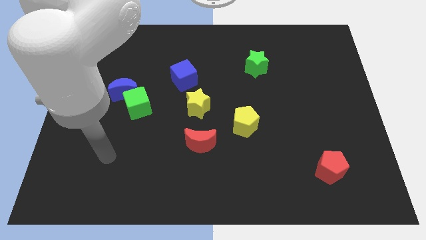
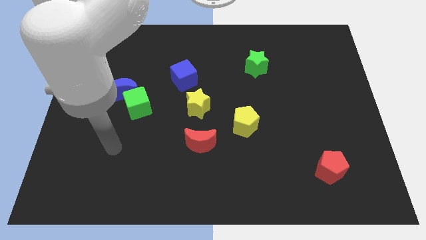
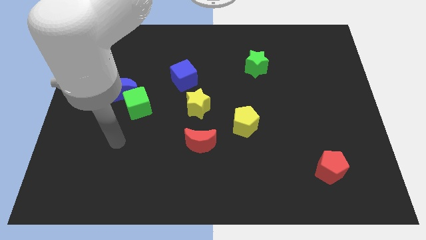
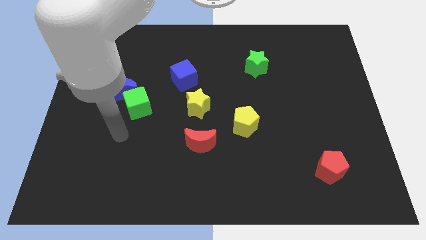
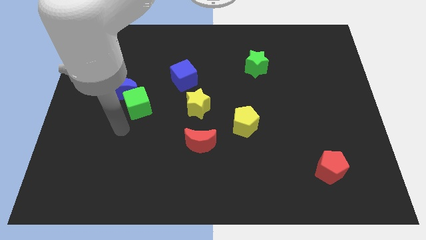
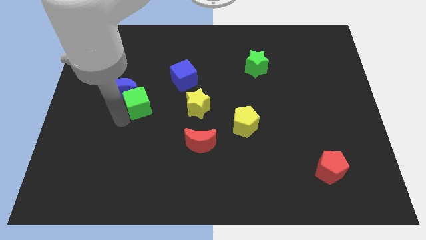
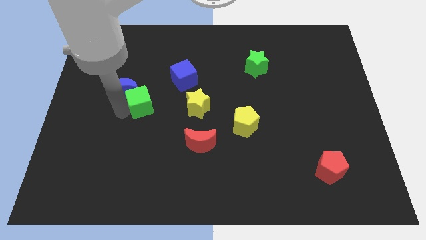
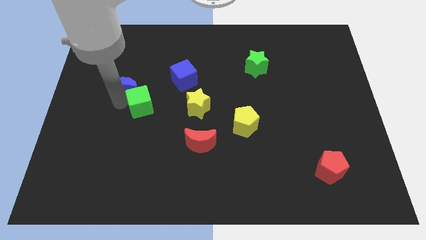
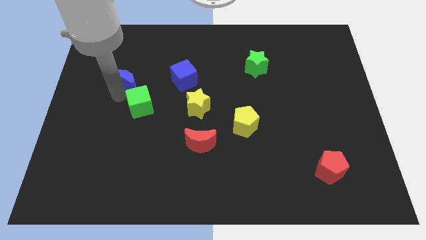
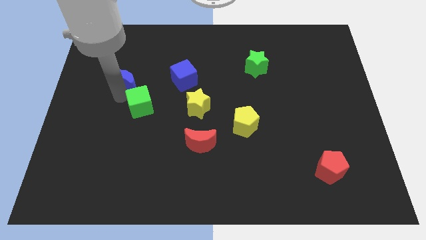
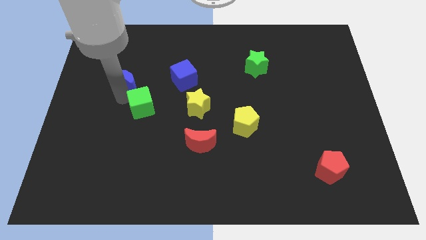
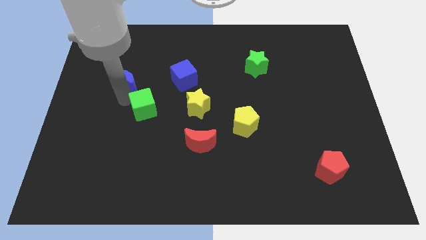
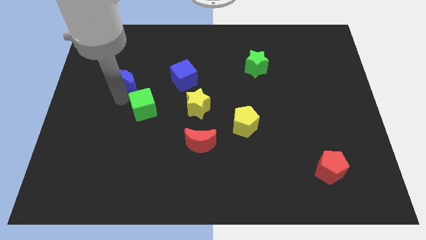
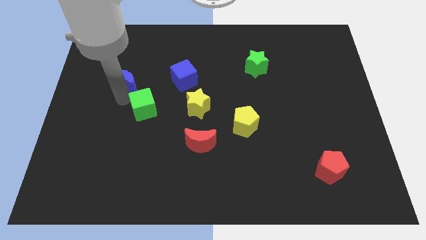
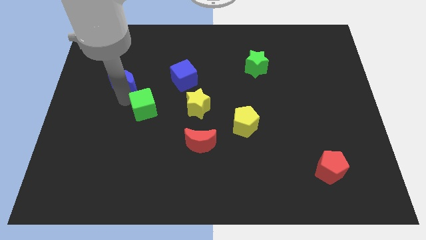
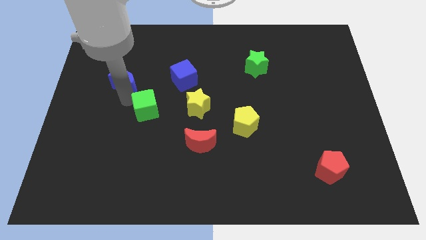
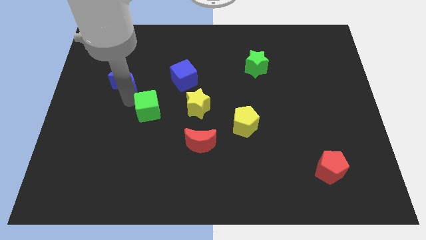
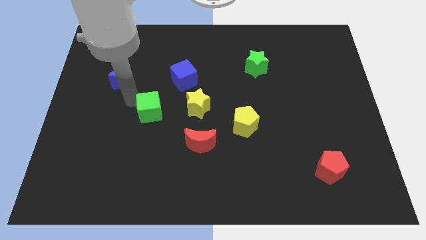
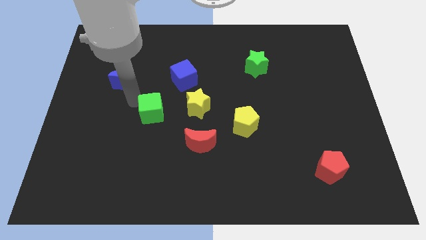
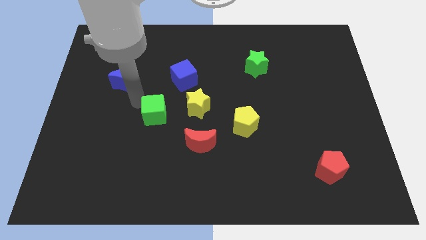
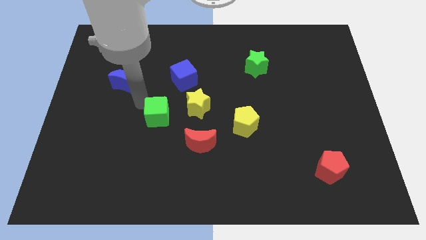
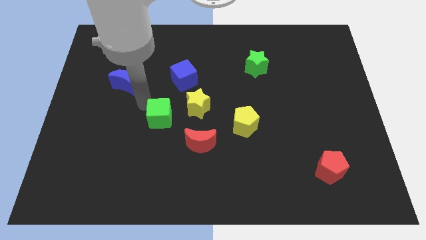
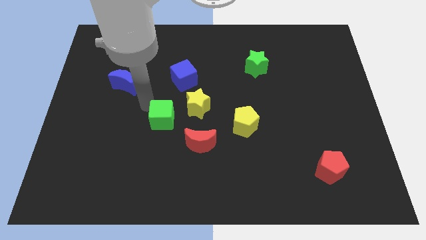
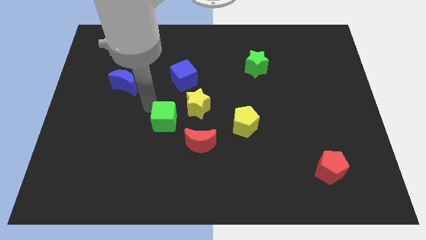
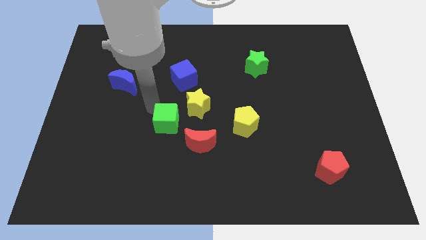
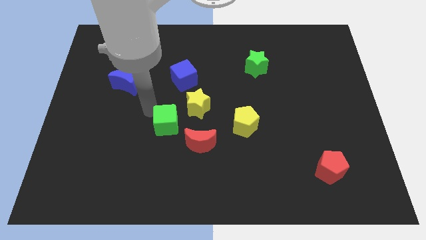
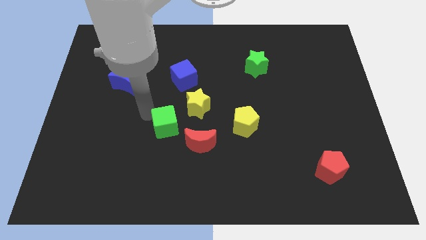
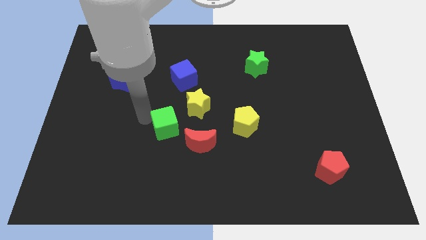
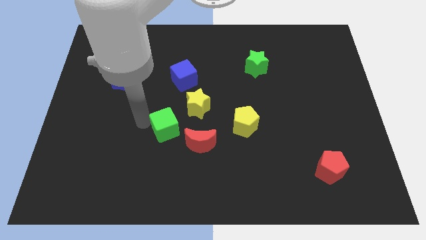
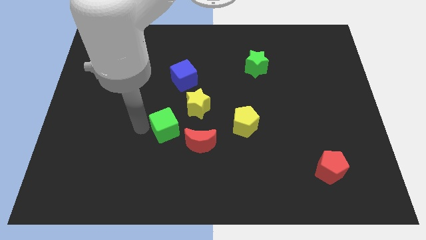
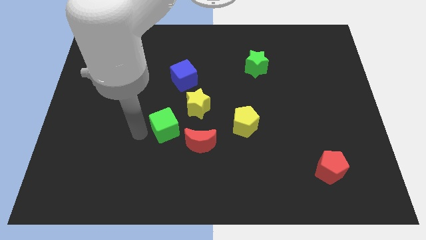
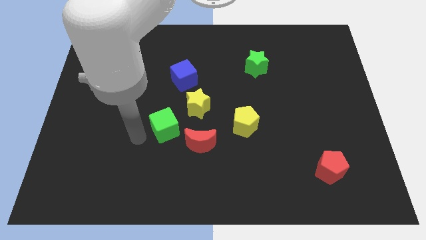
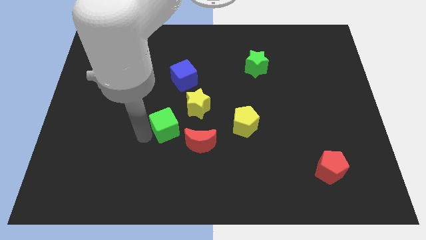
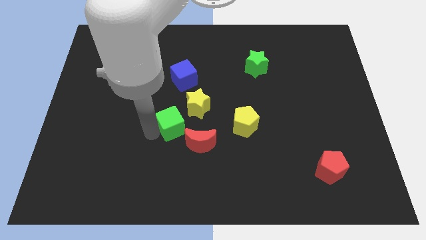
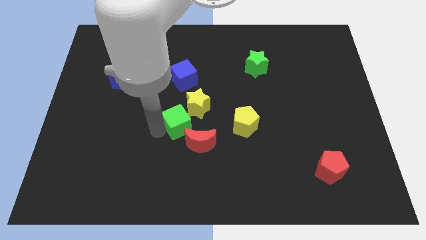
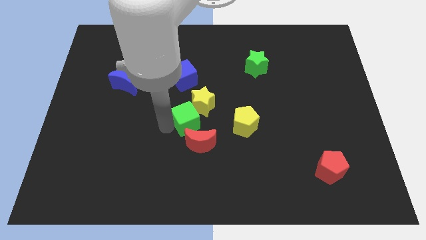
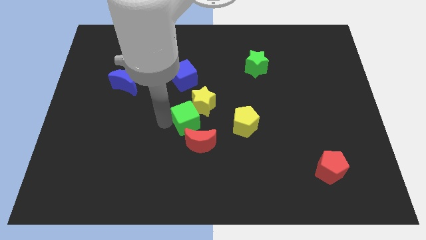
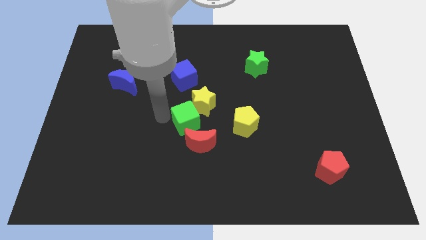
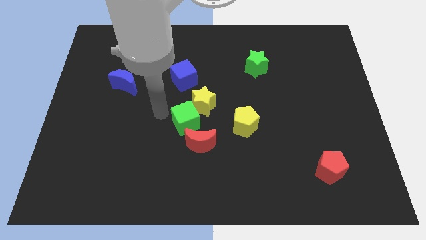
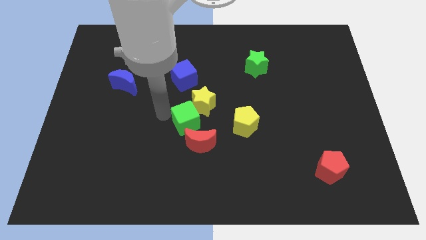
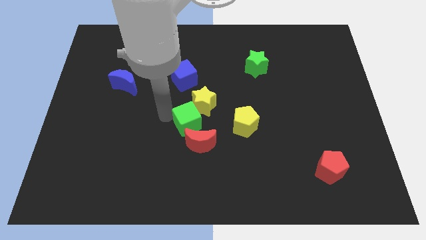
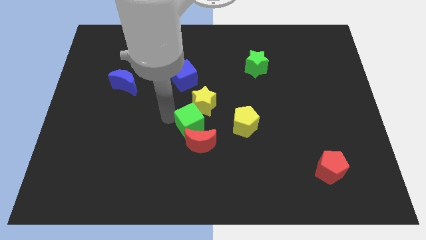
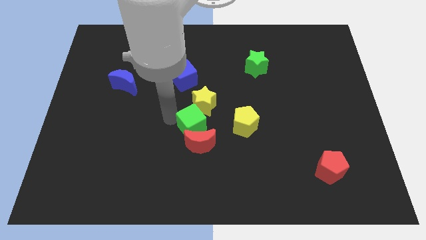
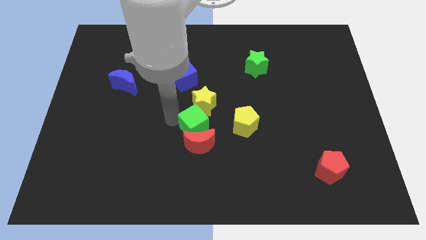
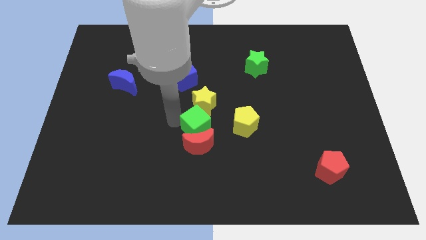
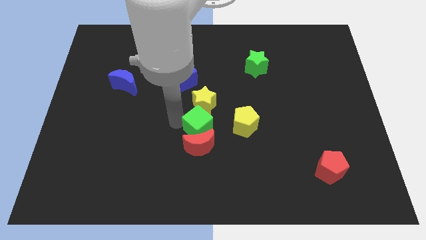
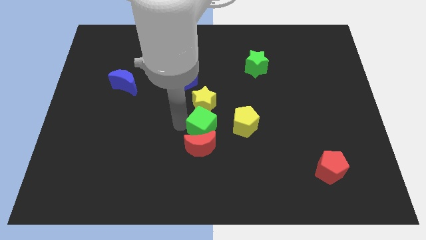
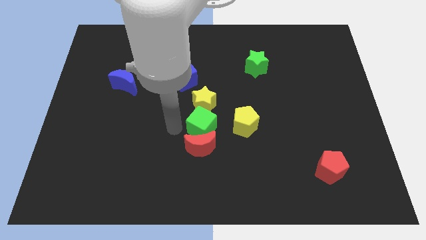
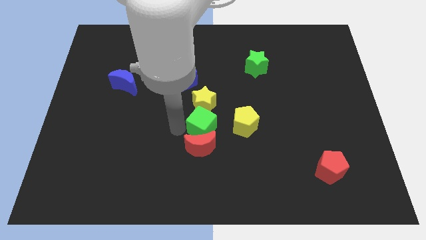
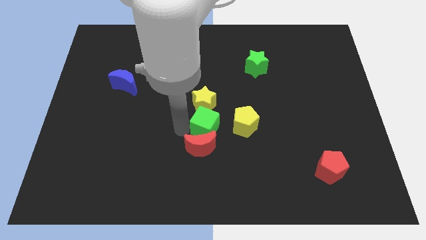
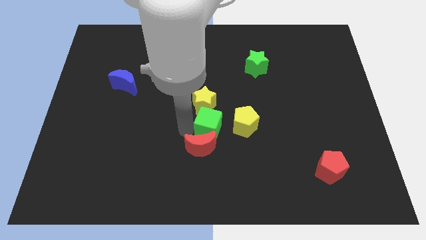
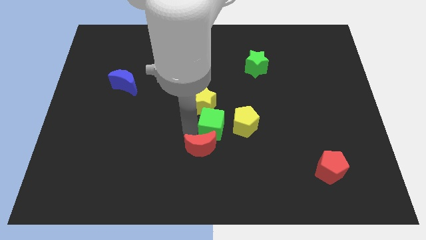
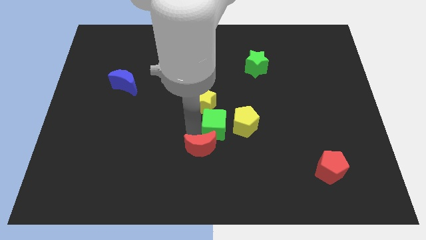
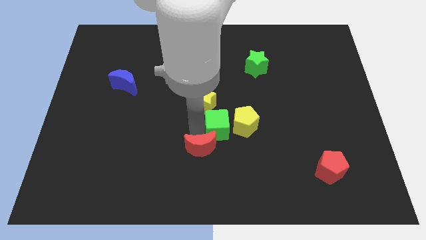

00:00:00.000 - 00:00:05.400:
push the green cube close to the yellow pentagon

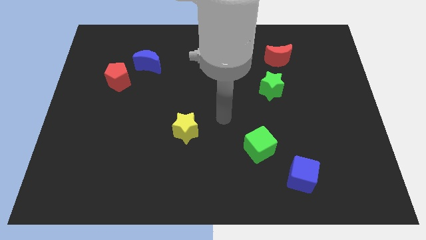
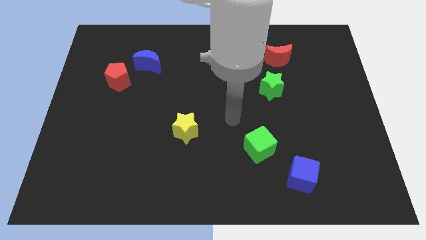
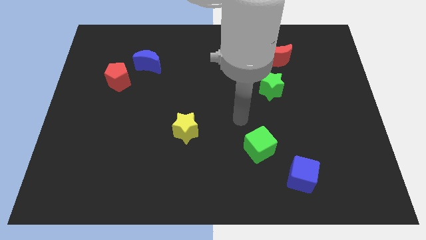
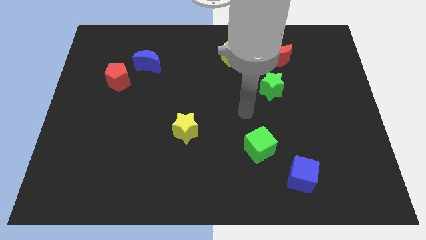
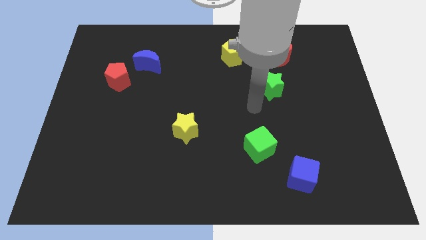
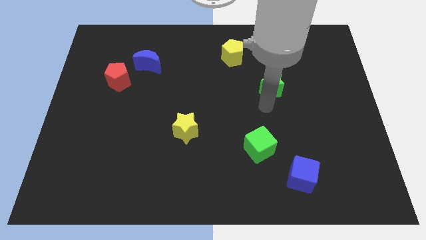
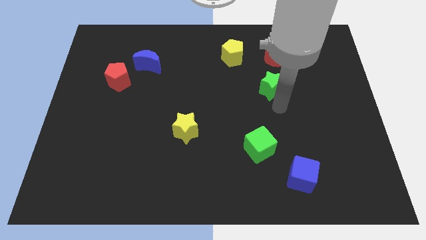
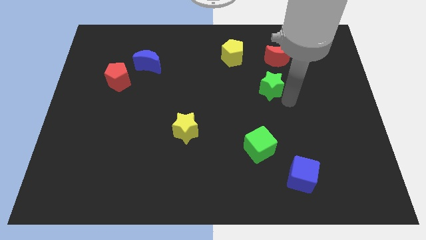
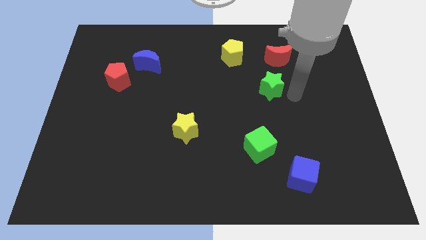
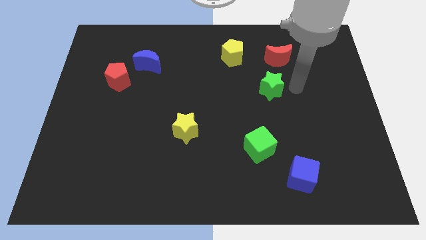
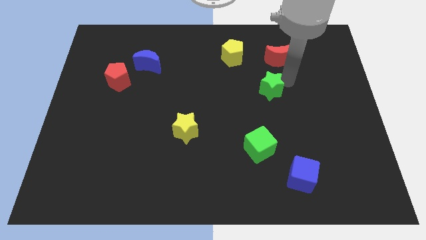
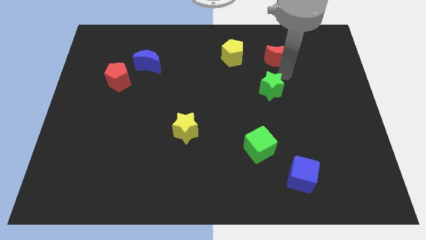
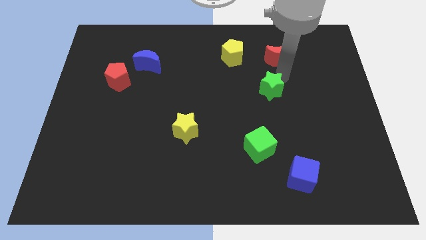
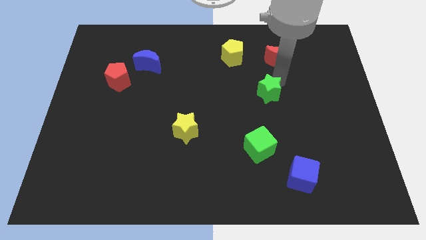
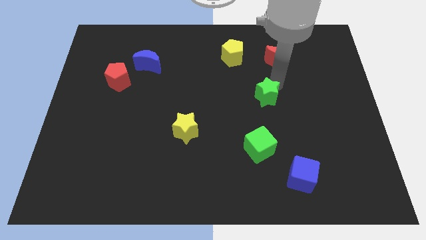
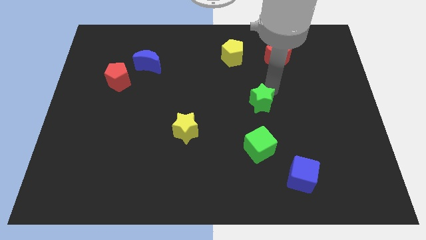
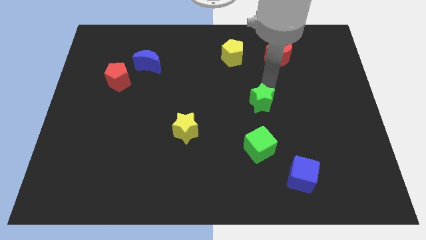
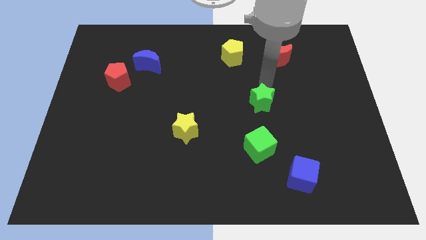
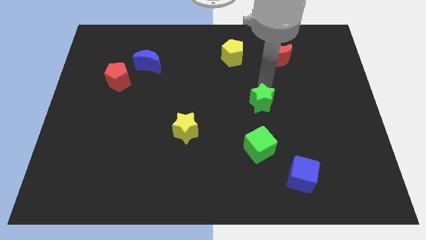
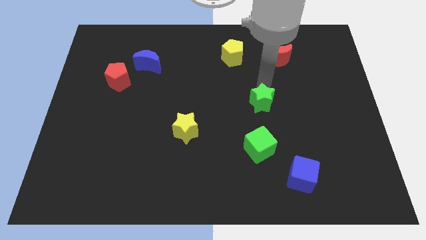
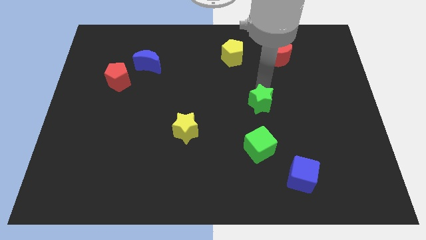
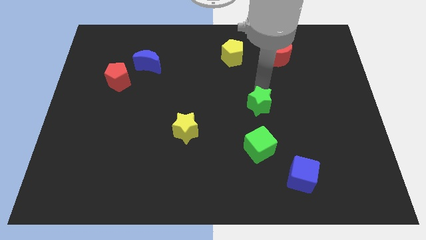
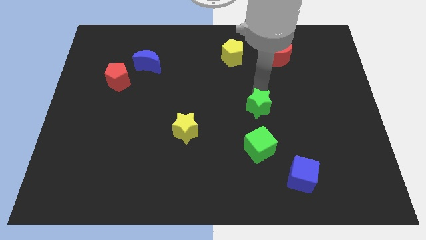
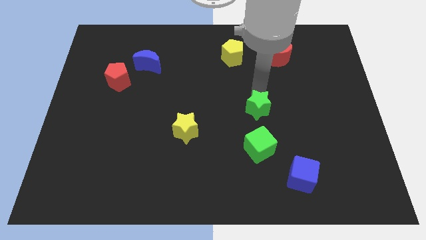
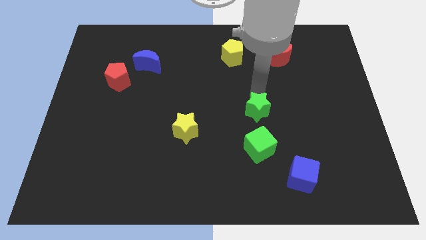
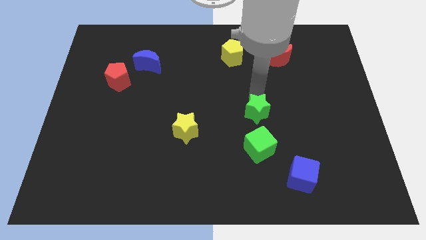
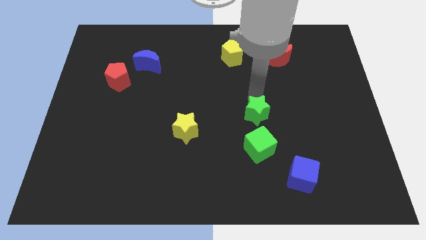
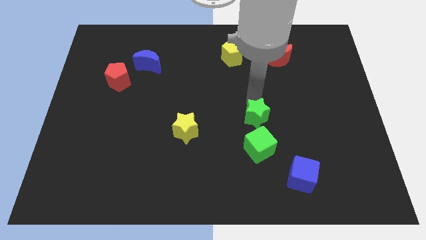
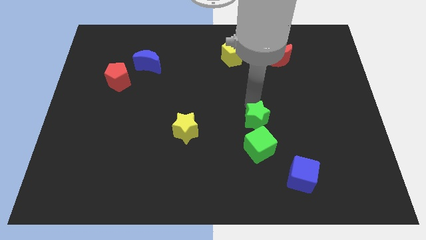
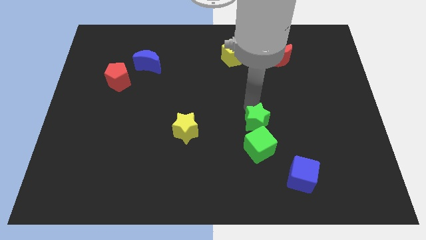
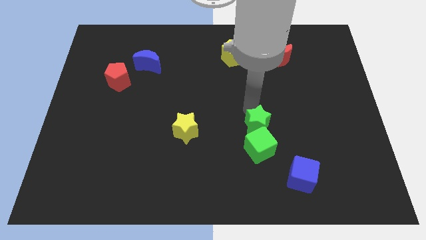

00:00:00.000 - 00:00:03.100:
move the green star to the green cube
